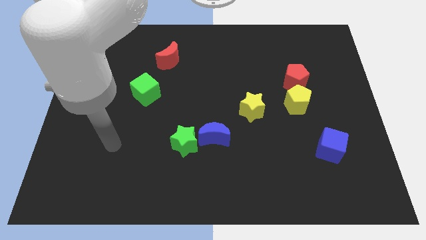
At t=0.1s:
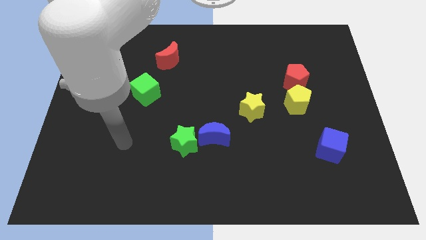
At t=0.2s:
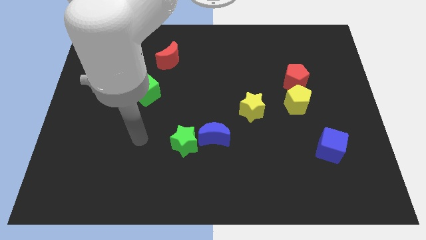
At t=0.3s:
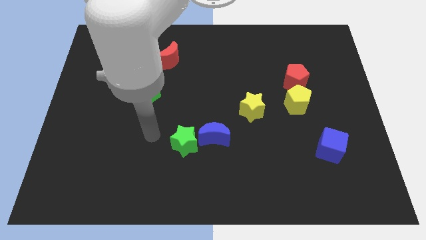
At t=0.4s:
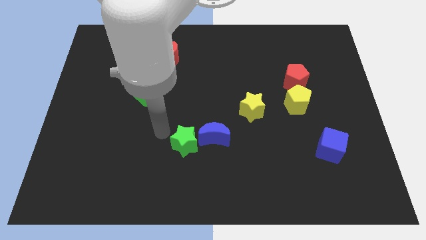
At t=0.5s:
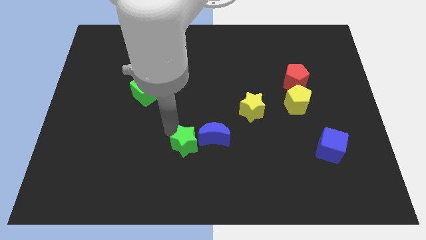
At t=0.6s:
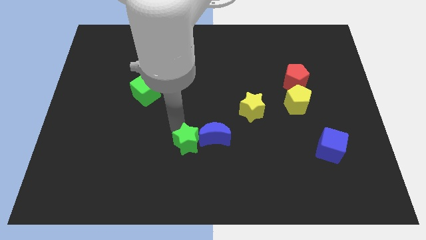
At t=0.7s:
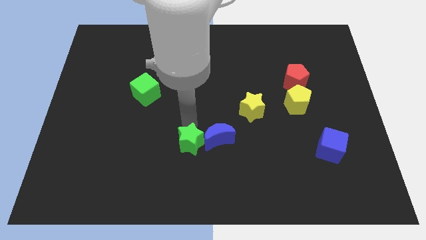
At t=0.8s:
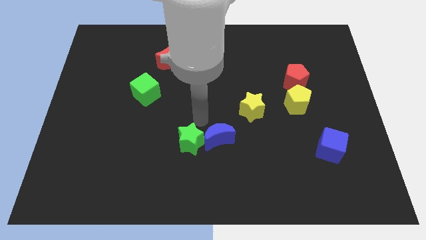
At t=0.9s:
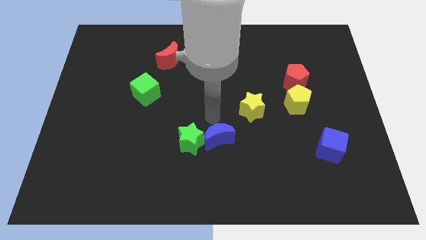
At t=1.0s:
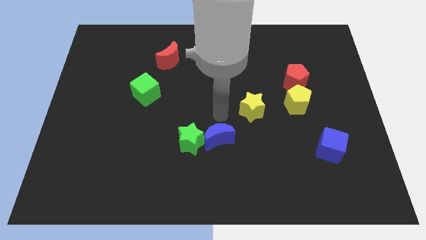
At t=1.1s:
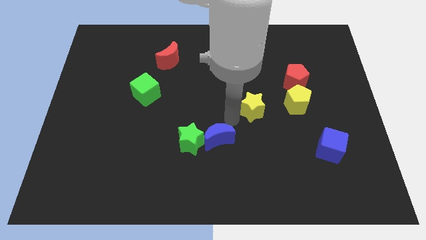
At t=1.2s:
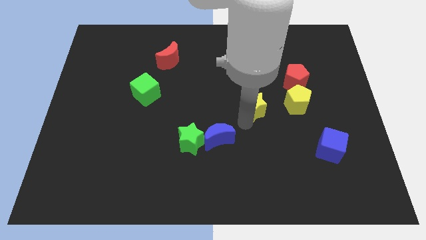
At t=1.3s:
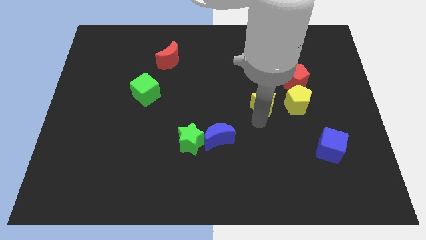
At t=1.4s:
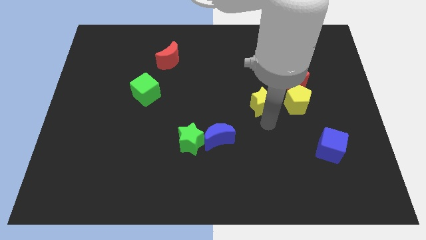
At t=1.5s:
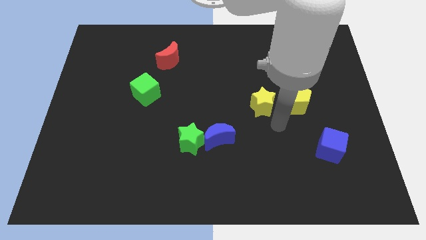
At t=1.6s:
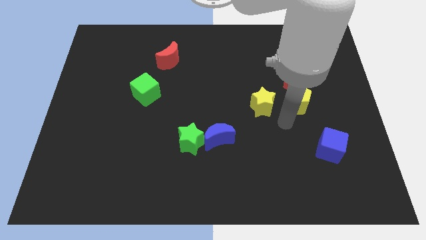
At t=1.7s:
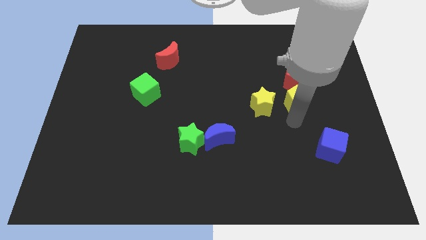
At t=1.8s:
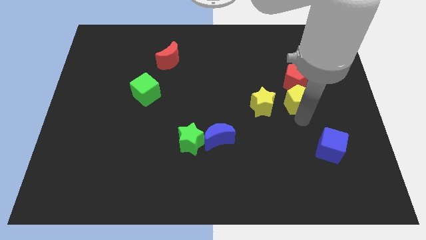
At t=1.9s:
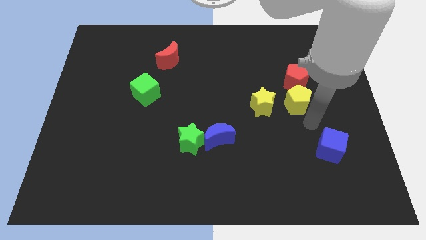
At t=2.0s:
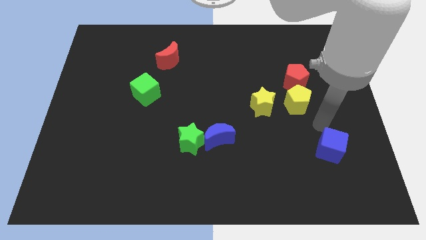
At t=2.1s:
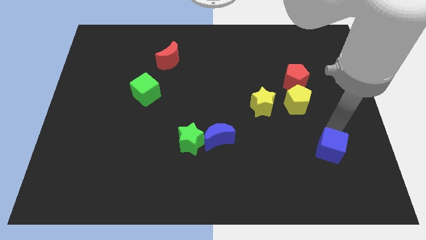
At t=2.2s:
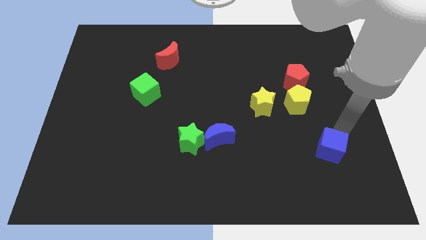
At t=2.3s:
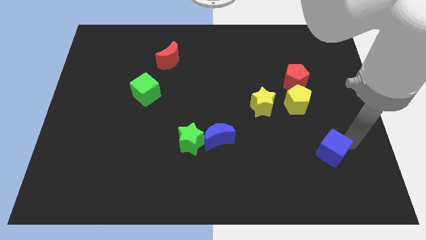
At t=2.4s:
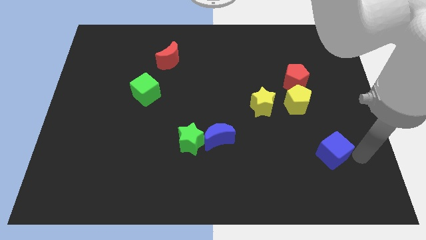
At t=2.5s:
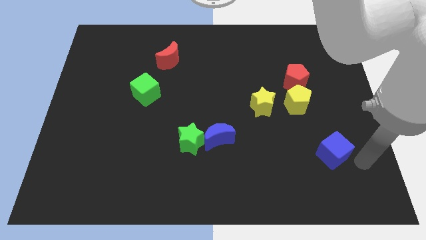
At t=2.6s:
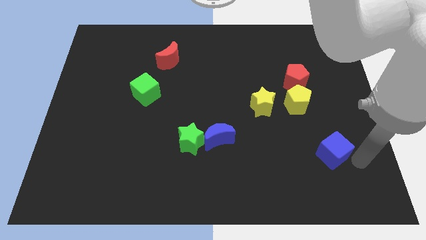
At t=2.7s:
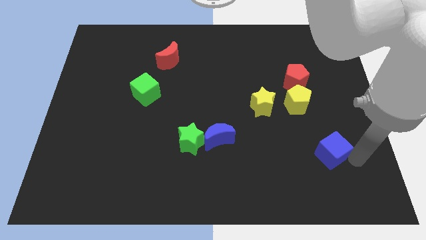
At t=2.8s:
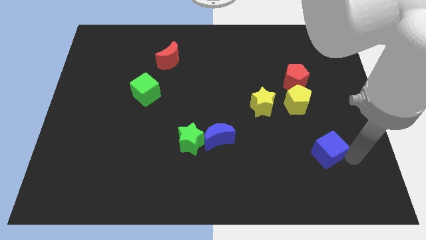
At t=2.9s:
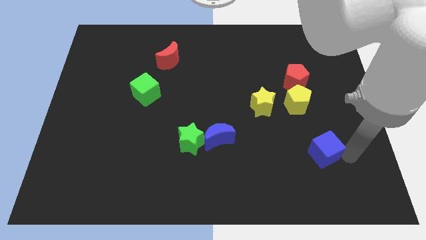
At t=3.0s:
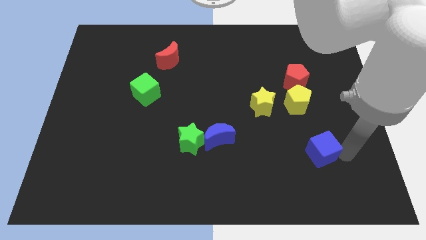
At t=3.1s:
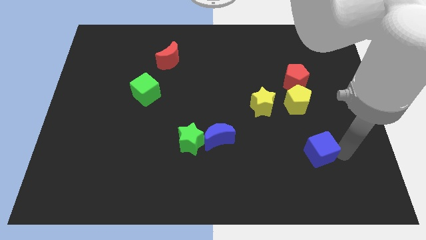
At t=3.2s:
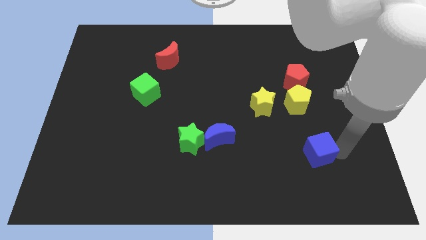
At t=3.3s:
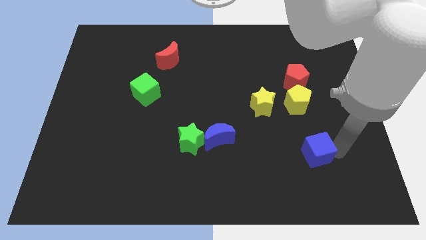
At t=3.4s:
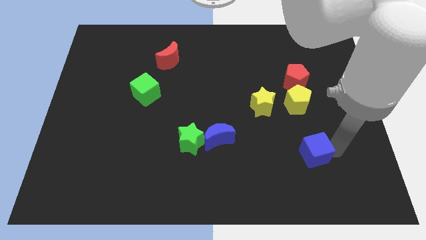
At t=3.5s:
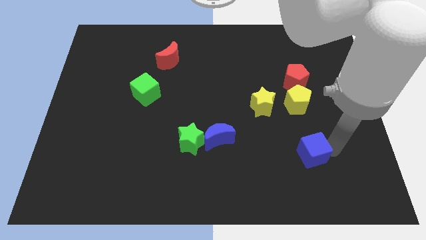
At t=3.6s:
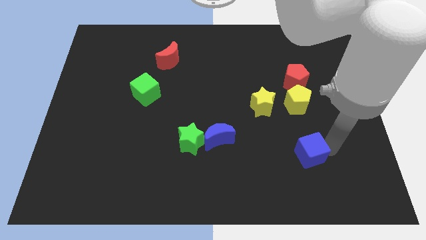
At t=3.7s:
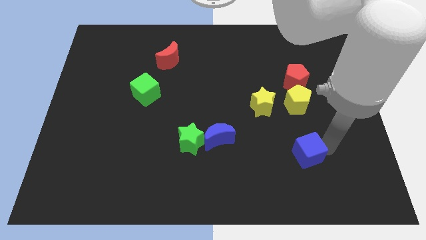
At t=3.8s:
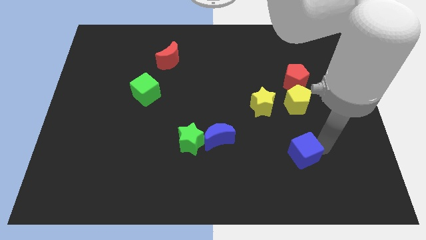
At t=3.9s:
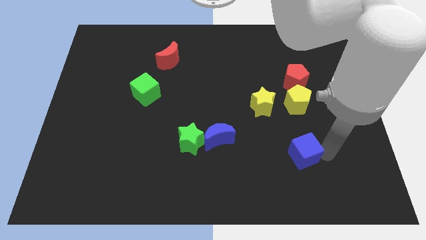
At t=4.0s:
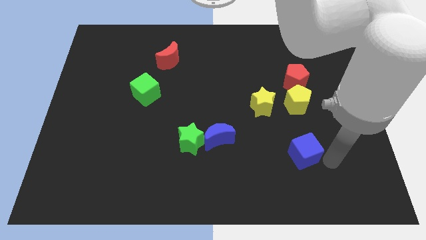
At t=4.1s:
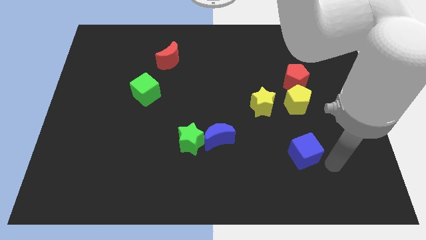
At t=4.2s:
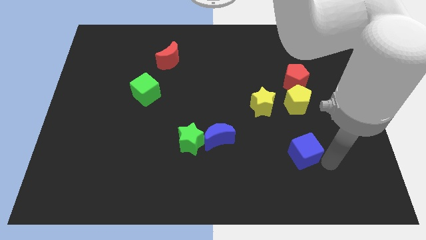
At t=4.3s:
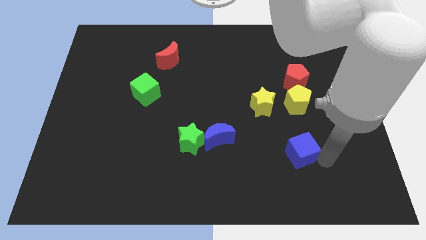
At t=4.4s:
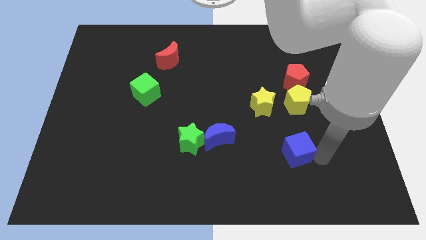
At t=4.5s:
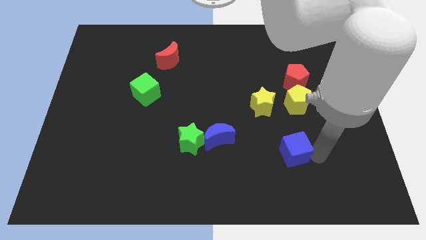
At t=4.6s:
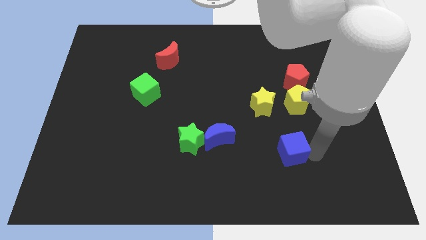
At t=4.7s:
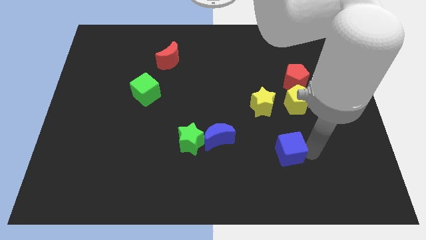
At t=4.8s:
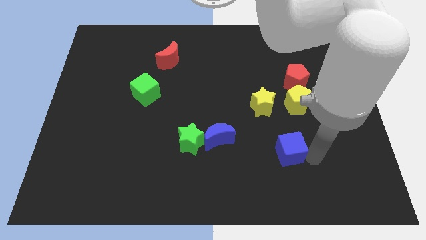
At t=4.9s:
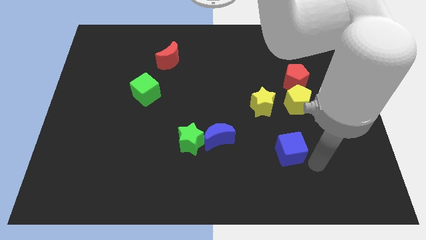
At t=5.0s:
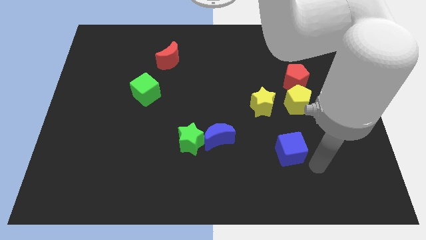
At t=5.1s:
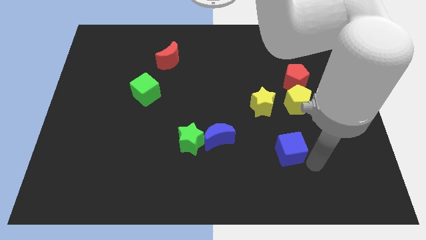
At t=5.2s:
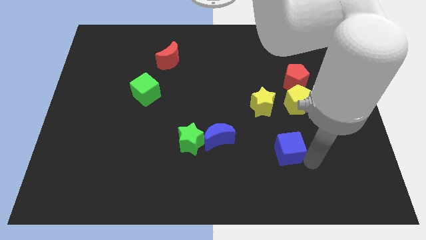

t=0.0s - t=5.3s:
push the blue cube to the right of the blue moon

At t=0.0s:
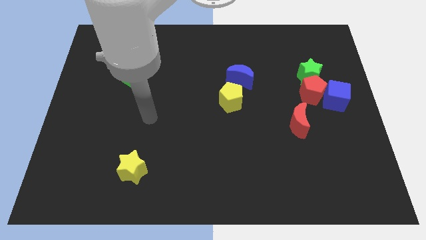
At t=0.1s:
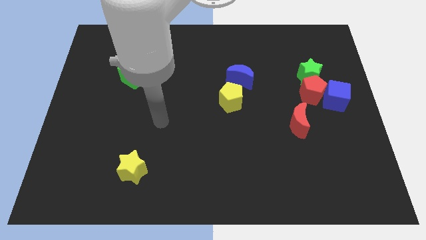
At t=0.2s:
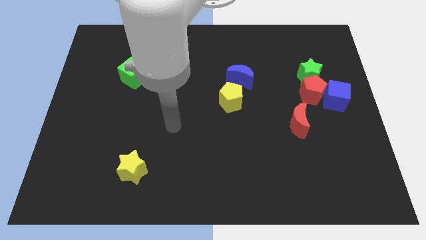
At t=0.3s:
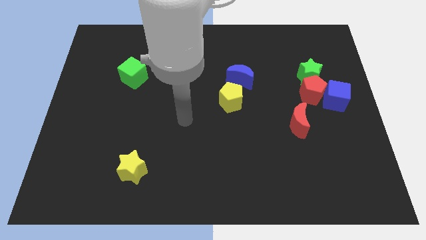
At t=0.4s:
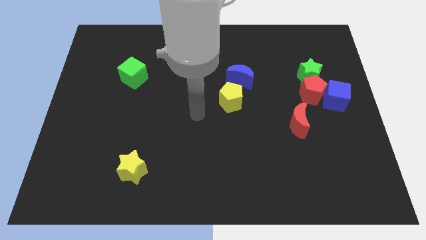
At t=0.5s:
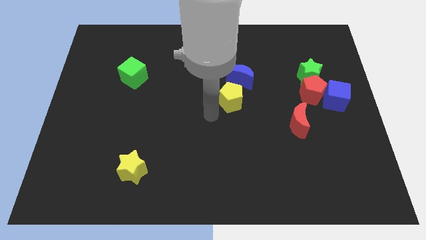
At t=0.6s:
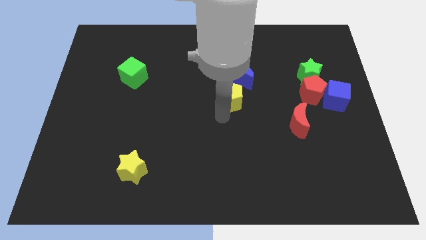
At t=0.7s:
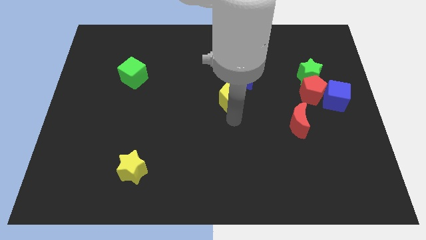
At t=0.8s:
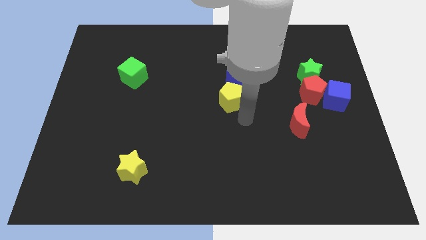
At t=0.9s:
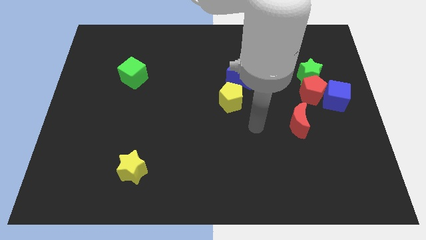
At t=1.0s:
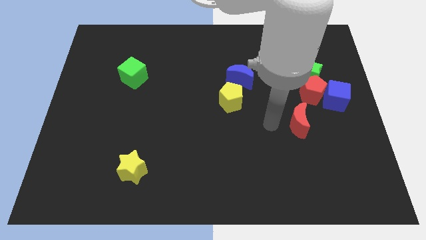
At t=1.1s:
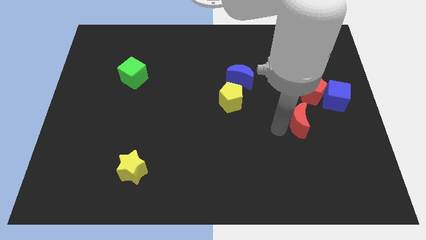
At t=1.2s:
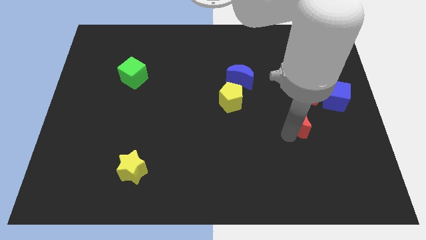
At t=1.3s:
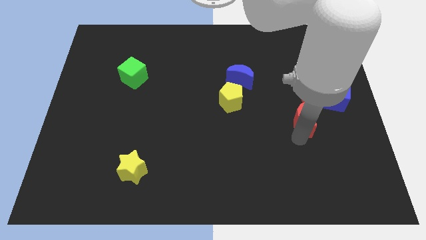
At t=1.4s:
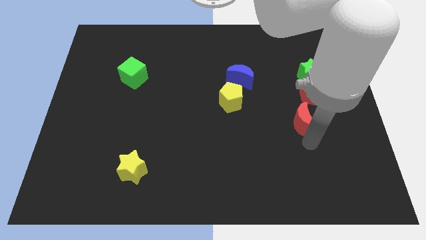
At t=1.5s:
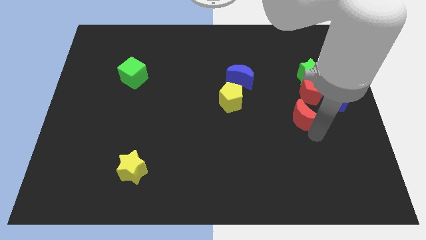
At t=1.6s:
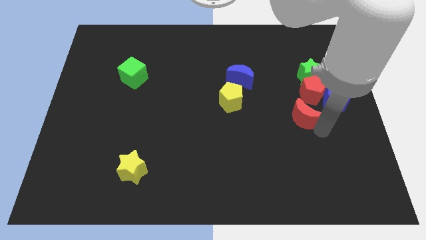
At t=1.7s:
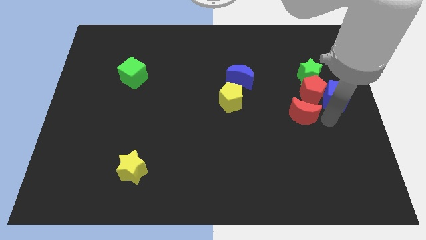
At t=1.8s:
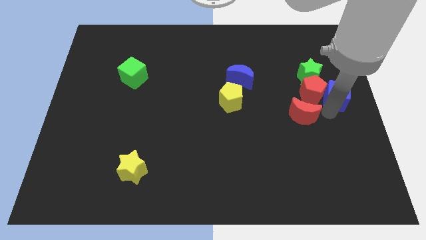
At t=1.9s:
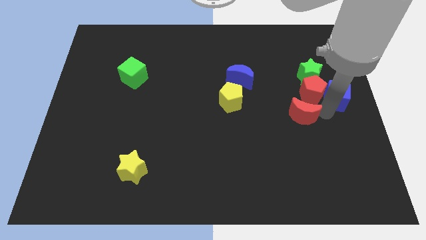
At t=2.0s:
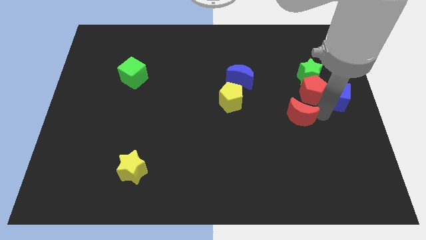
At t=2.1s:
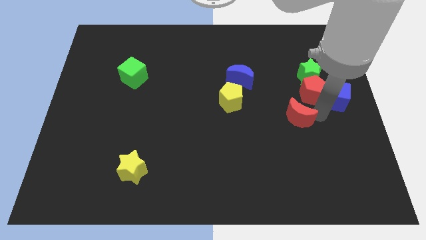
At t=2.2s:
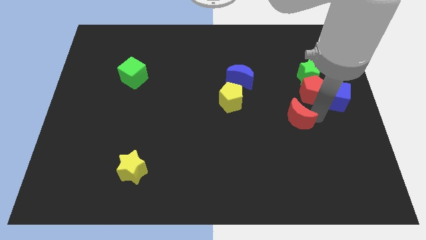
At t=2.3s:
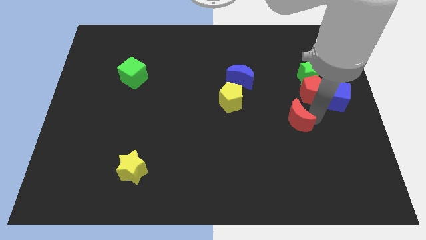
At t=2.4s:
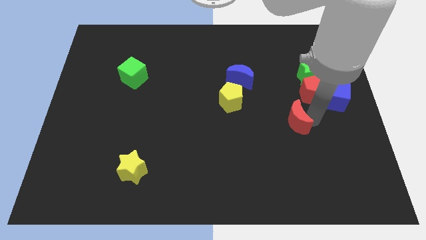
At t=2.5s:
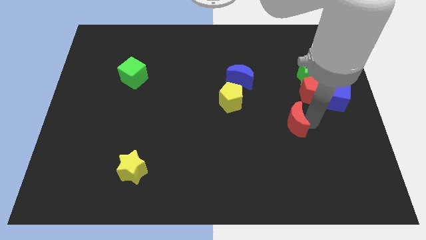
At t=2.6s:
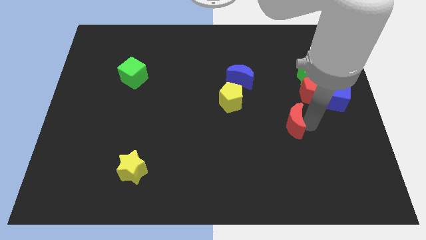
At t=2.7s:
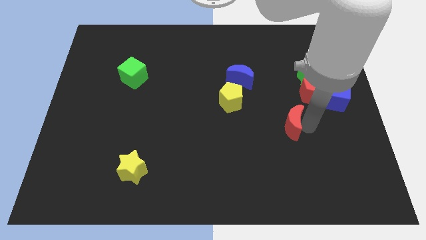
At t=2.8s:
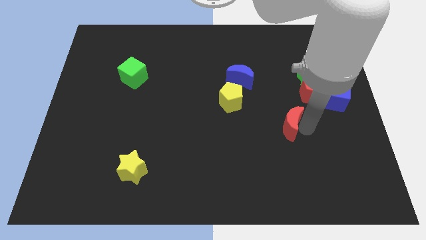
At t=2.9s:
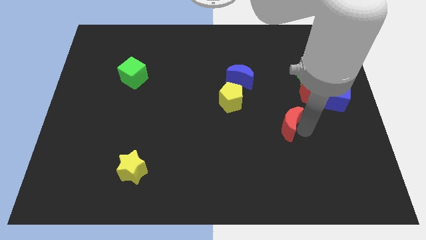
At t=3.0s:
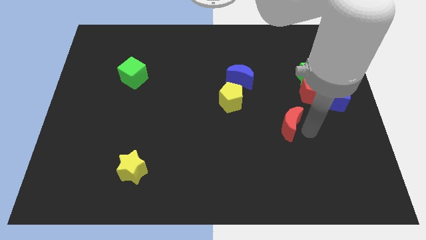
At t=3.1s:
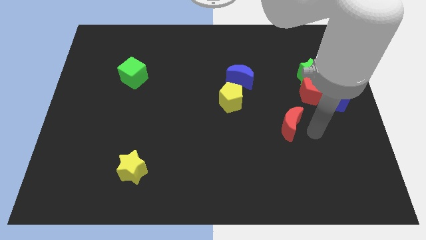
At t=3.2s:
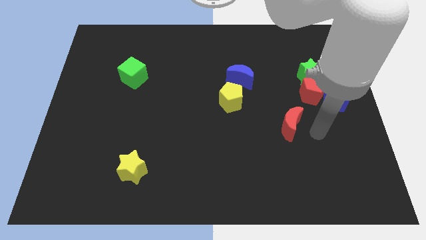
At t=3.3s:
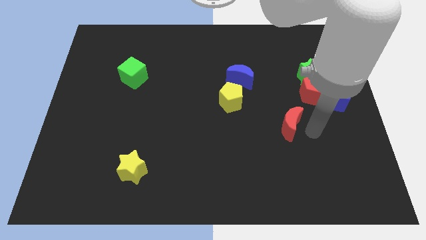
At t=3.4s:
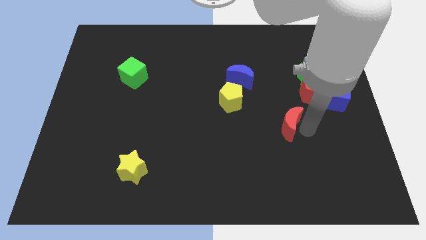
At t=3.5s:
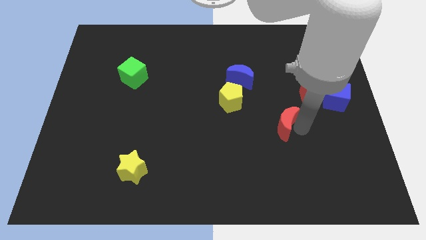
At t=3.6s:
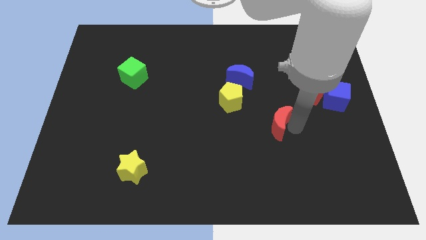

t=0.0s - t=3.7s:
slide the red moon diagonally down and to the right of the yellow pentagon
